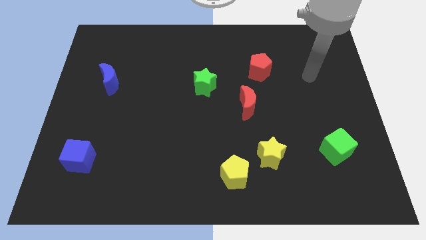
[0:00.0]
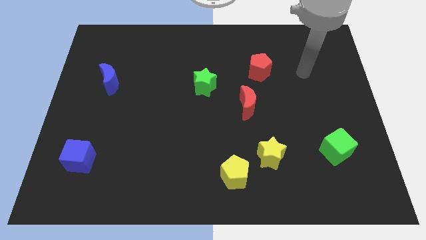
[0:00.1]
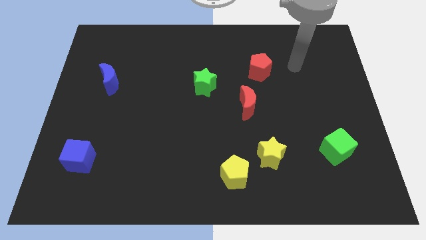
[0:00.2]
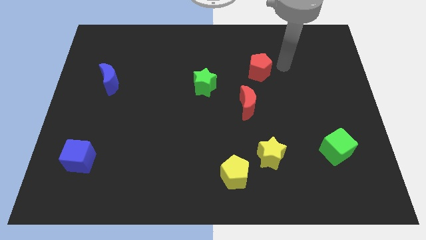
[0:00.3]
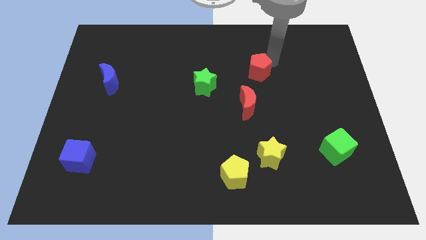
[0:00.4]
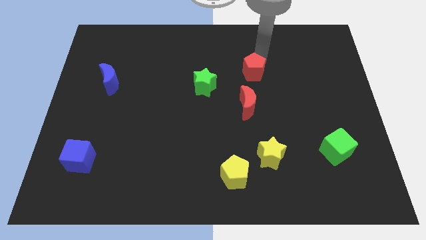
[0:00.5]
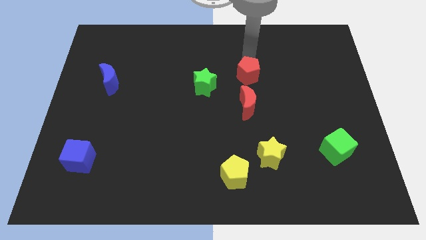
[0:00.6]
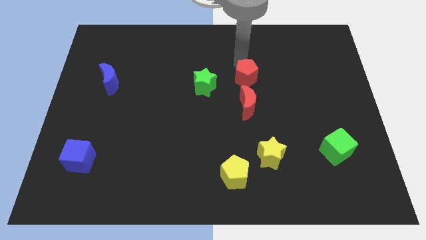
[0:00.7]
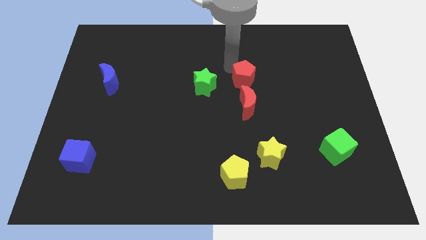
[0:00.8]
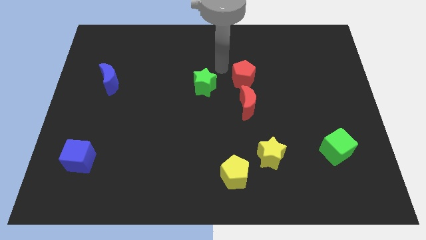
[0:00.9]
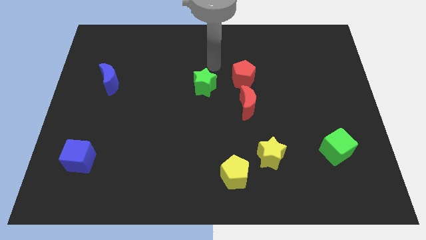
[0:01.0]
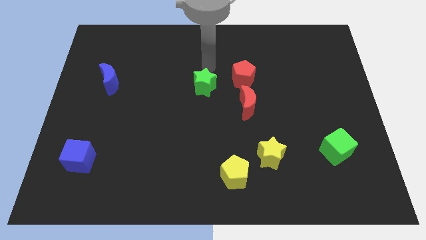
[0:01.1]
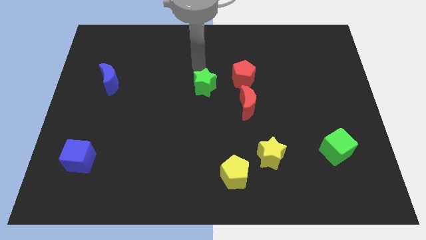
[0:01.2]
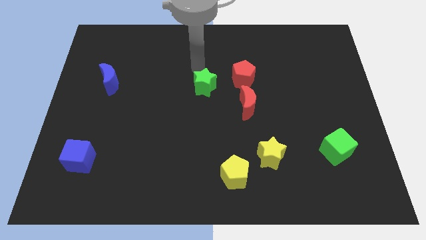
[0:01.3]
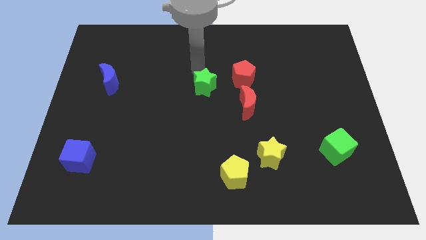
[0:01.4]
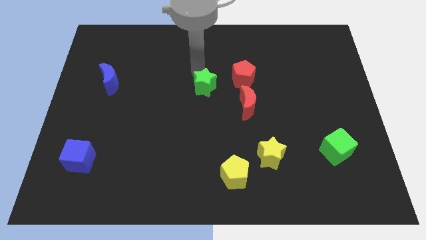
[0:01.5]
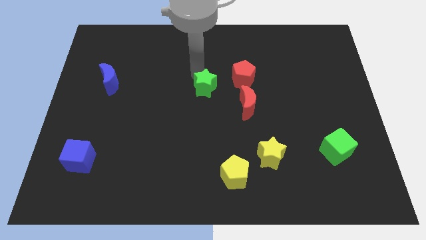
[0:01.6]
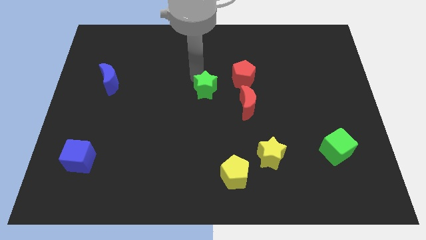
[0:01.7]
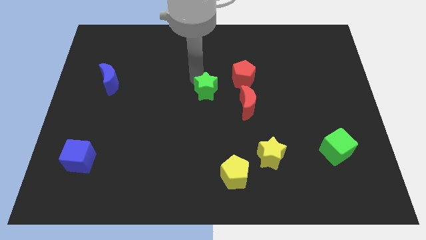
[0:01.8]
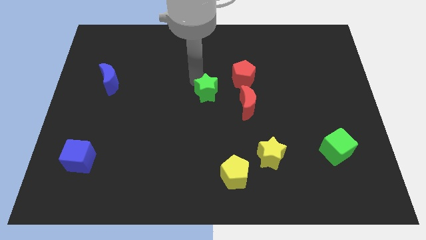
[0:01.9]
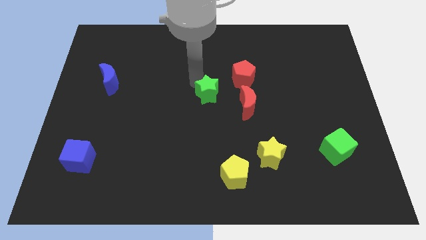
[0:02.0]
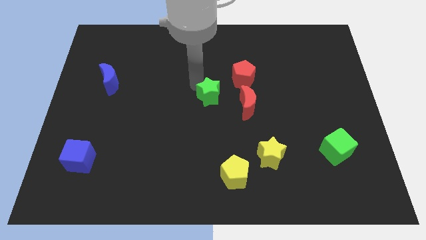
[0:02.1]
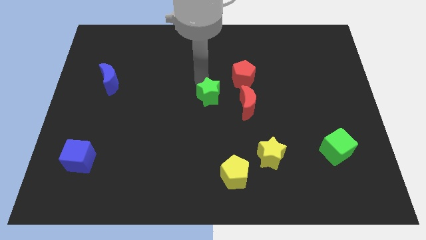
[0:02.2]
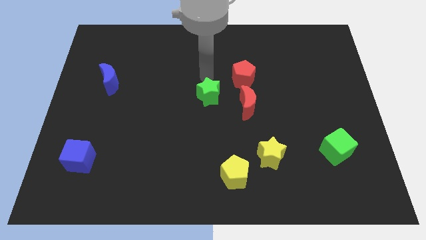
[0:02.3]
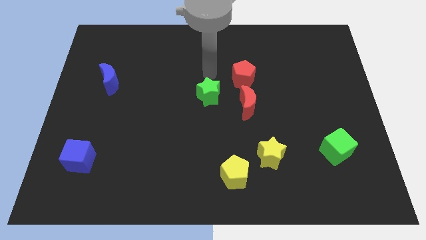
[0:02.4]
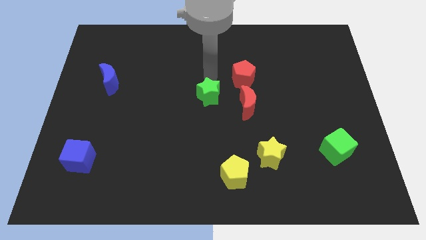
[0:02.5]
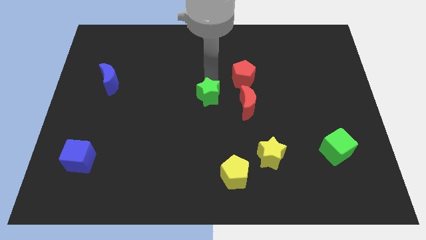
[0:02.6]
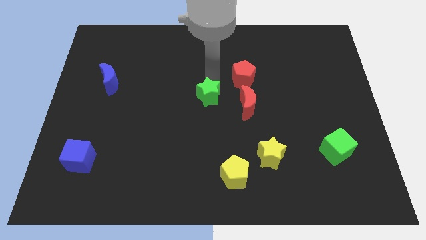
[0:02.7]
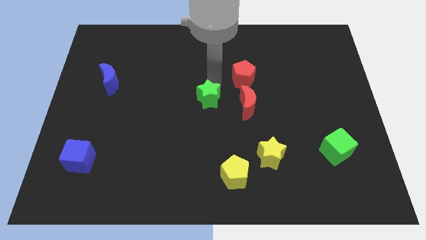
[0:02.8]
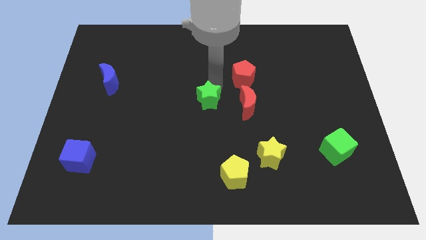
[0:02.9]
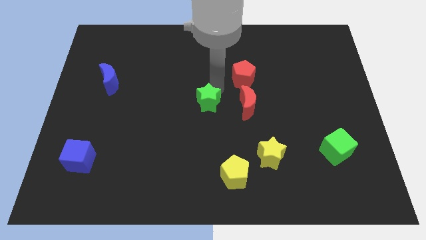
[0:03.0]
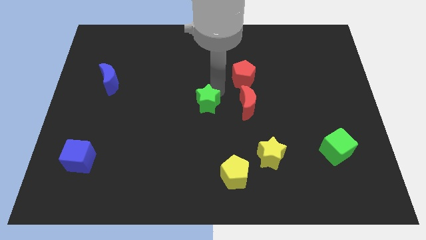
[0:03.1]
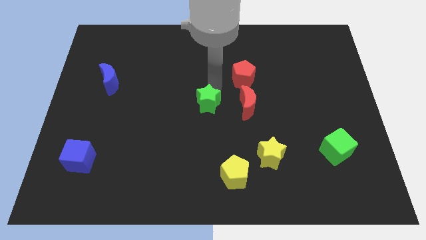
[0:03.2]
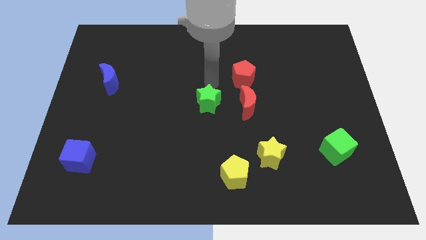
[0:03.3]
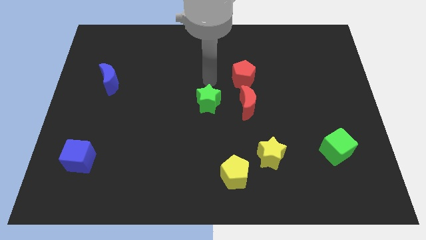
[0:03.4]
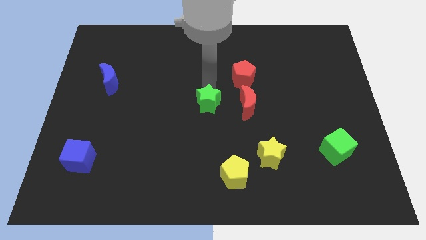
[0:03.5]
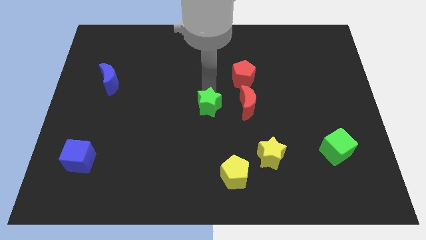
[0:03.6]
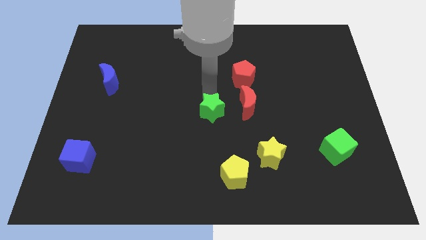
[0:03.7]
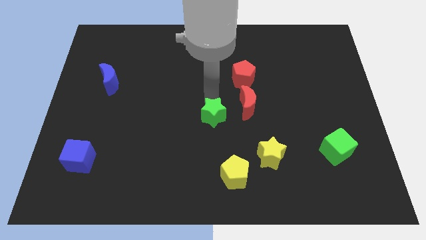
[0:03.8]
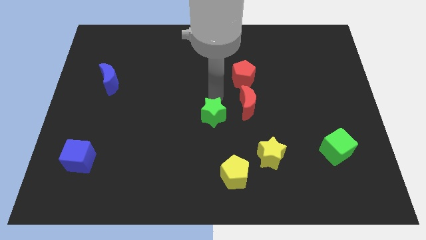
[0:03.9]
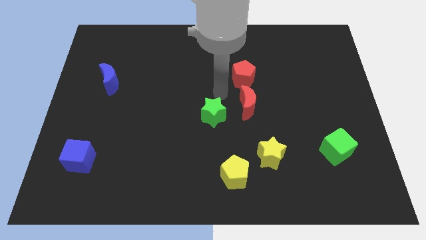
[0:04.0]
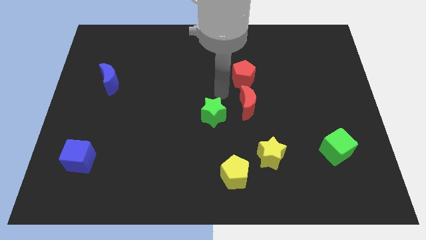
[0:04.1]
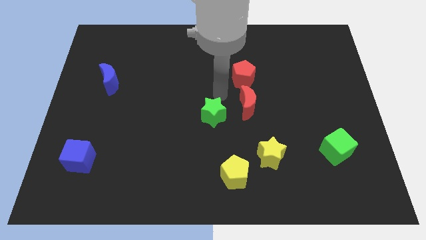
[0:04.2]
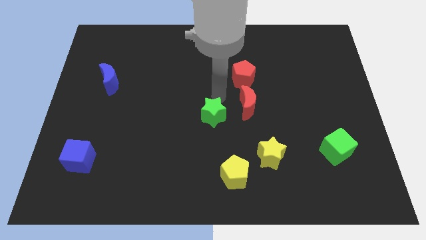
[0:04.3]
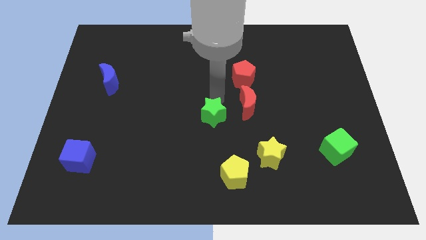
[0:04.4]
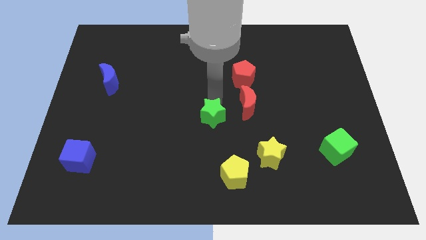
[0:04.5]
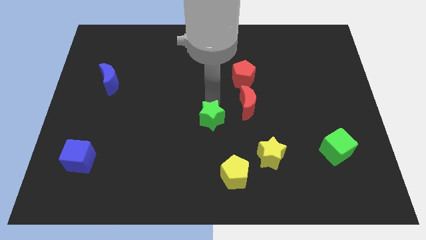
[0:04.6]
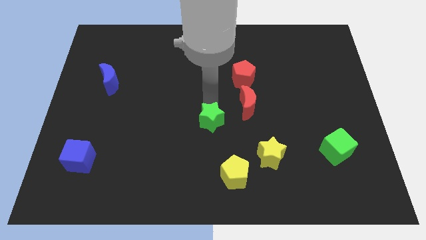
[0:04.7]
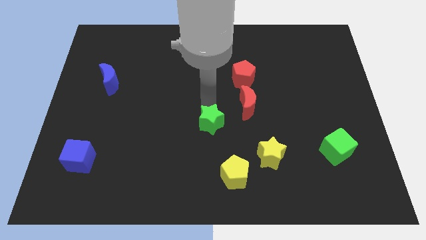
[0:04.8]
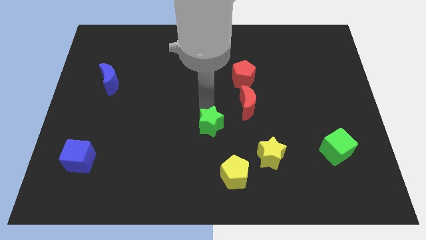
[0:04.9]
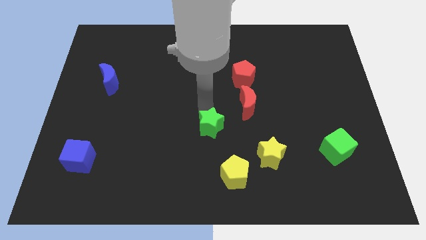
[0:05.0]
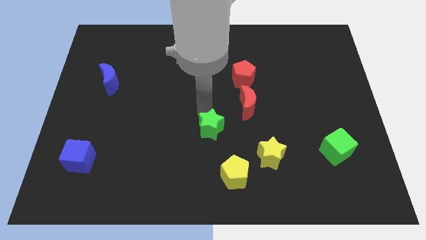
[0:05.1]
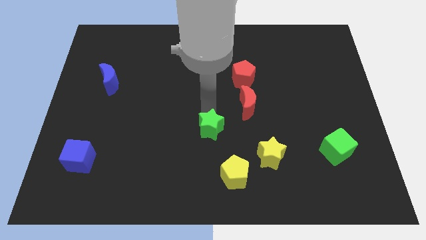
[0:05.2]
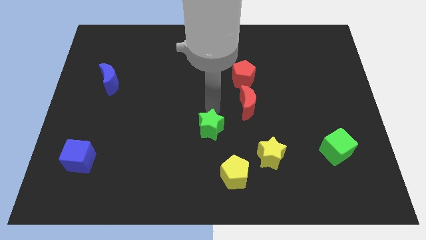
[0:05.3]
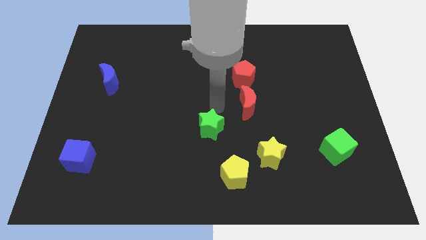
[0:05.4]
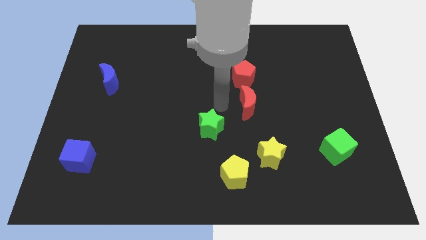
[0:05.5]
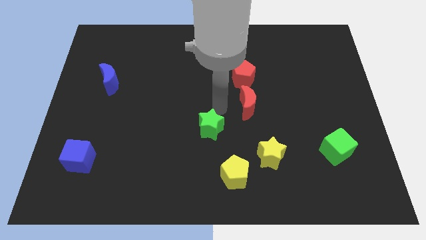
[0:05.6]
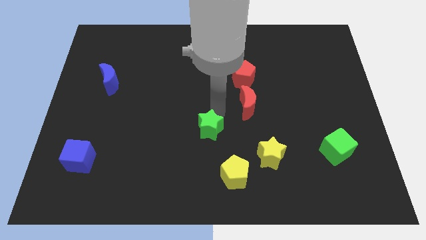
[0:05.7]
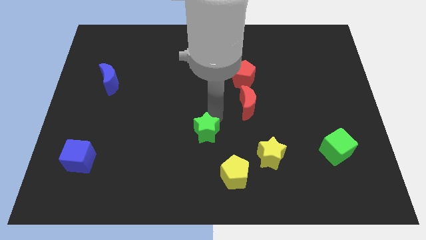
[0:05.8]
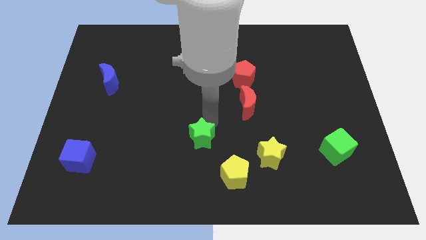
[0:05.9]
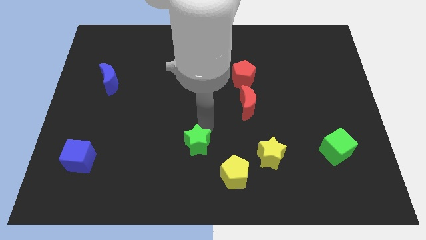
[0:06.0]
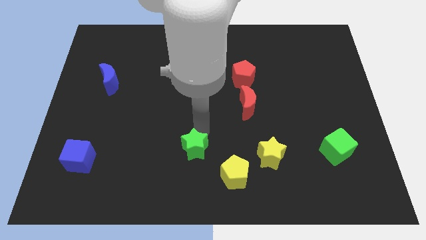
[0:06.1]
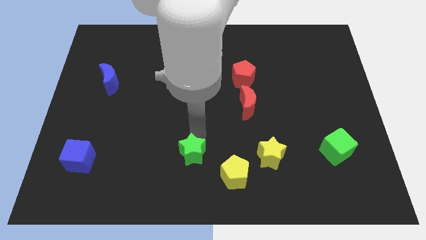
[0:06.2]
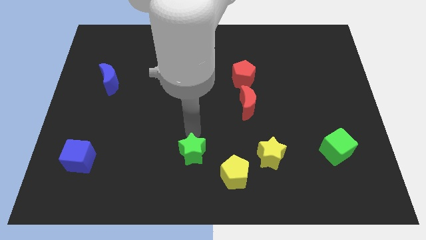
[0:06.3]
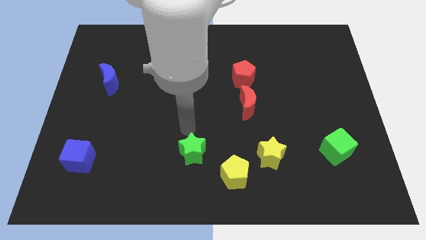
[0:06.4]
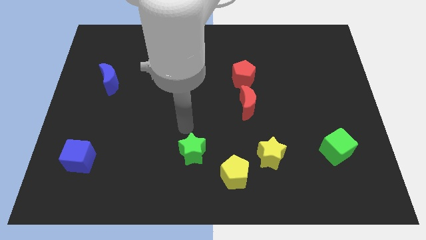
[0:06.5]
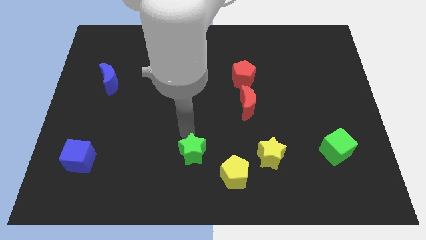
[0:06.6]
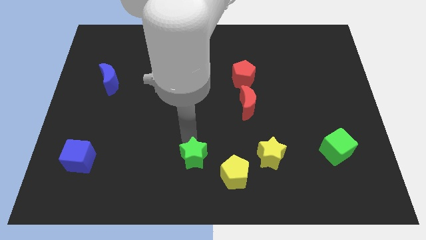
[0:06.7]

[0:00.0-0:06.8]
put the green star to the bottom side
